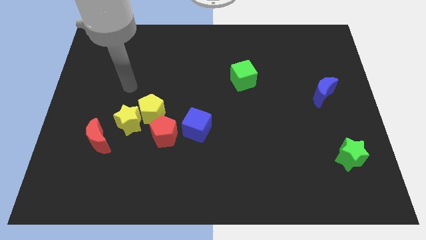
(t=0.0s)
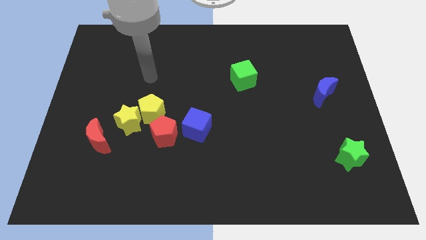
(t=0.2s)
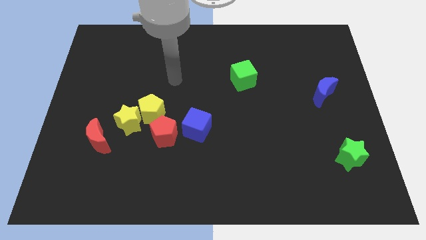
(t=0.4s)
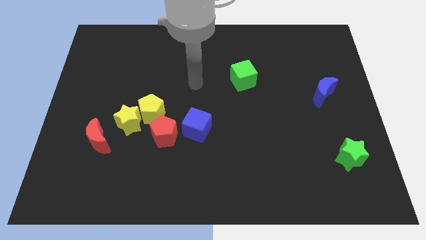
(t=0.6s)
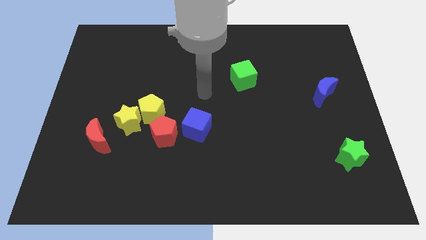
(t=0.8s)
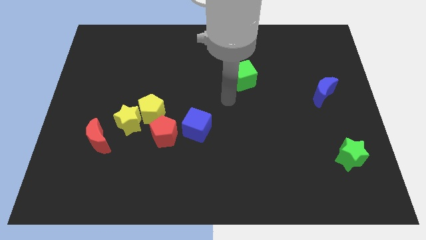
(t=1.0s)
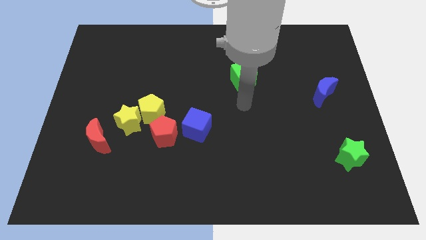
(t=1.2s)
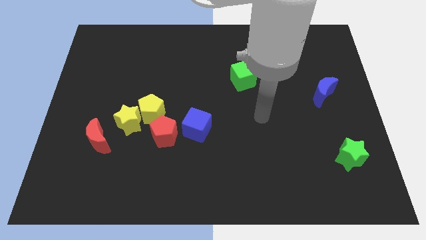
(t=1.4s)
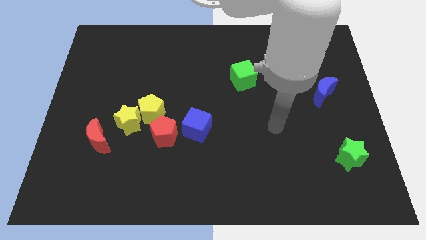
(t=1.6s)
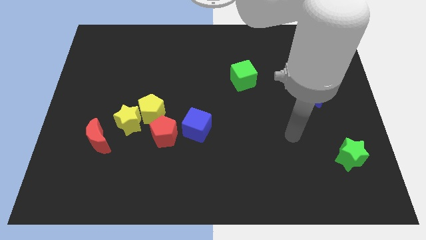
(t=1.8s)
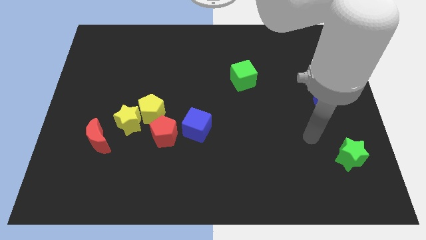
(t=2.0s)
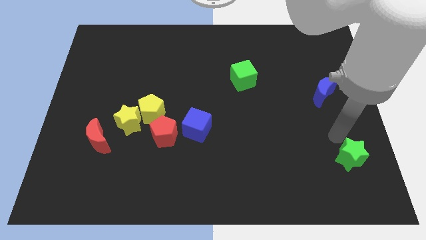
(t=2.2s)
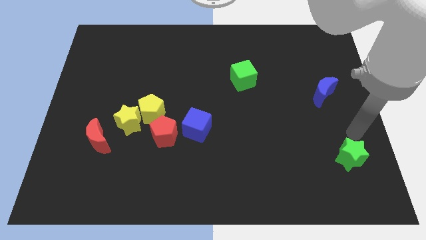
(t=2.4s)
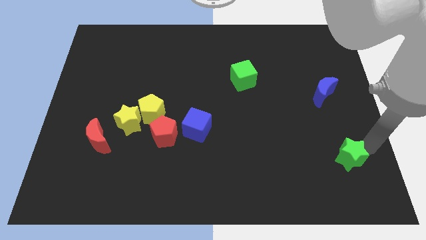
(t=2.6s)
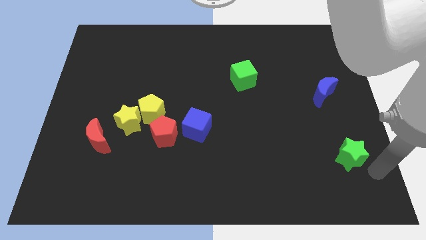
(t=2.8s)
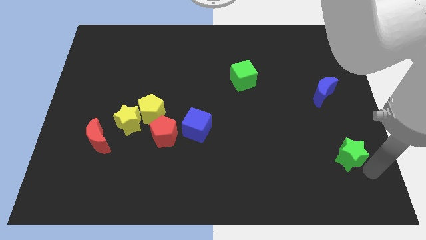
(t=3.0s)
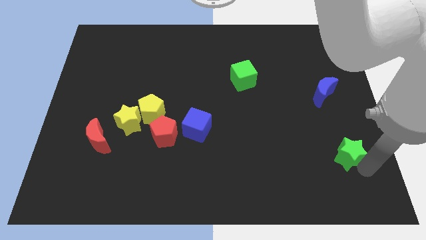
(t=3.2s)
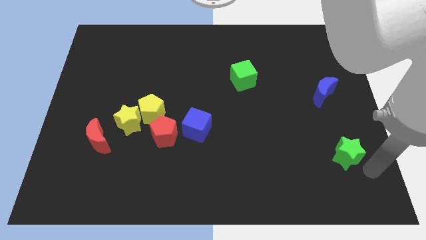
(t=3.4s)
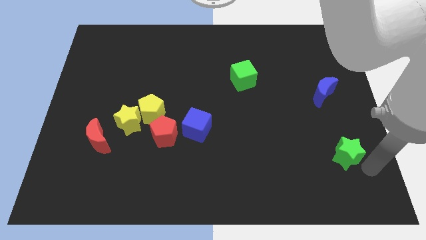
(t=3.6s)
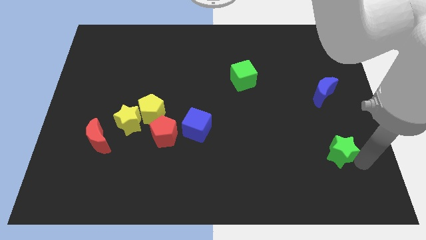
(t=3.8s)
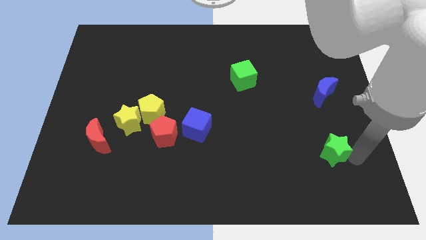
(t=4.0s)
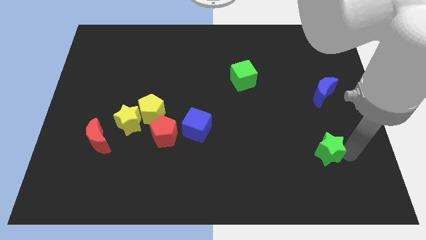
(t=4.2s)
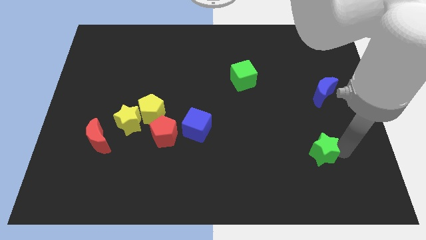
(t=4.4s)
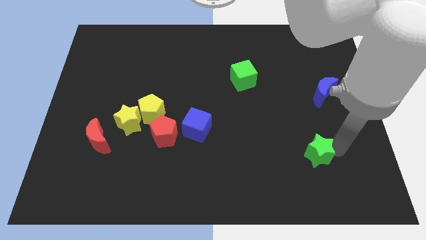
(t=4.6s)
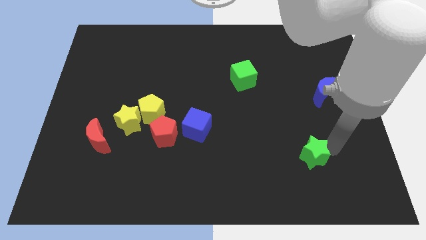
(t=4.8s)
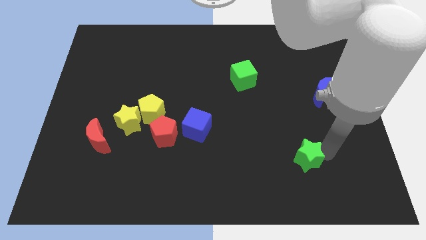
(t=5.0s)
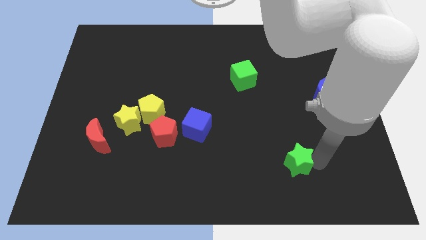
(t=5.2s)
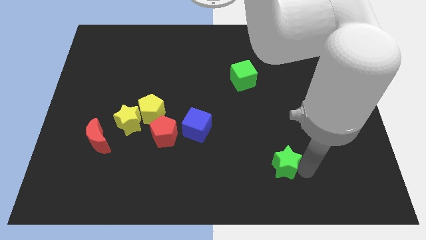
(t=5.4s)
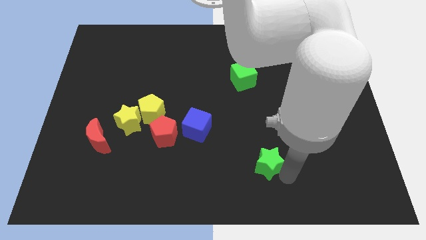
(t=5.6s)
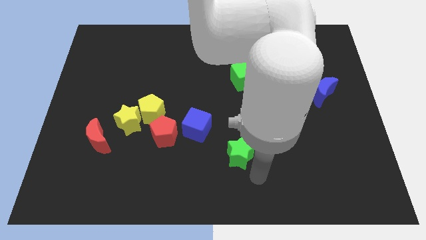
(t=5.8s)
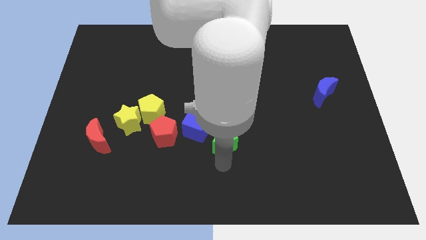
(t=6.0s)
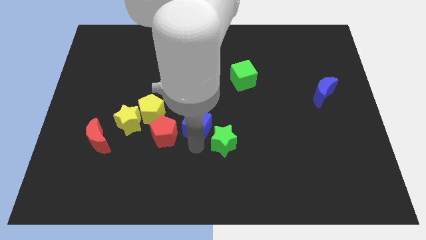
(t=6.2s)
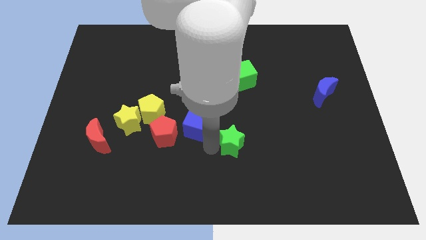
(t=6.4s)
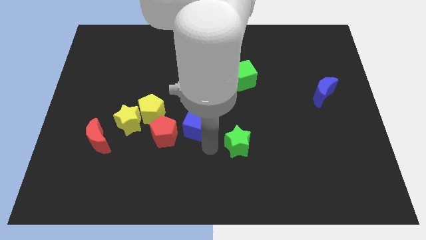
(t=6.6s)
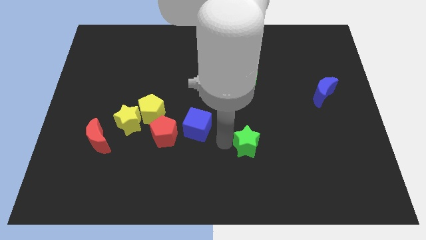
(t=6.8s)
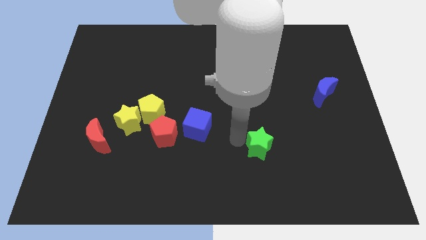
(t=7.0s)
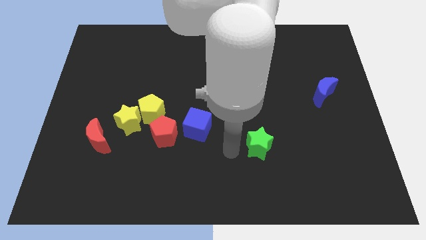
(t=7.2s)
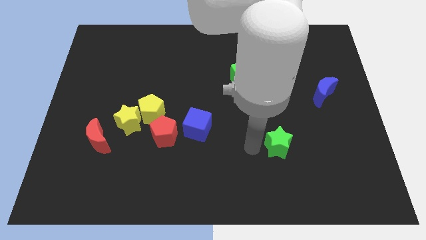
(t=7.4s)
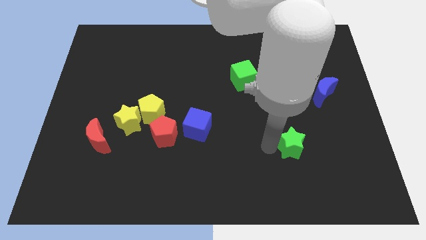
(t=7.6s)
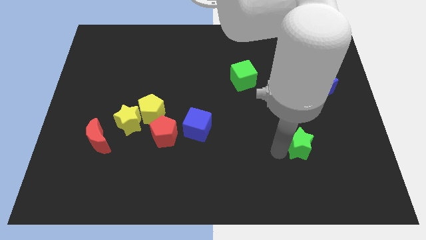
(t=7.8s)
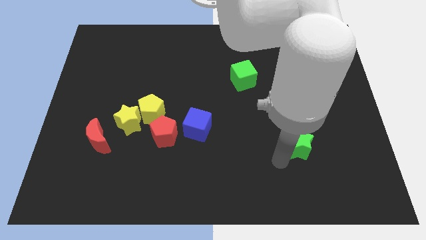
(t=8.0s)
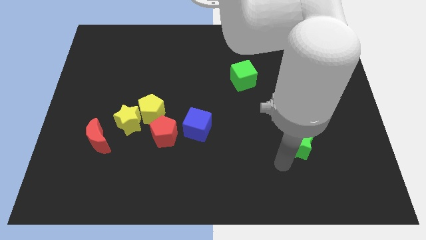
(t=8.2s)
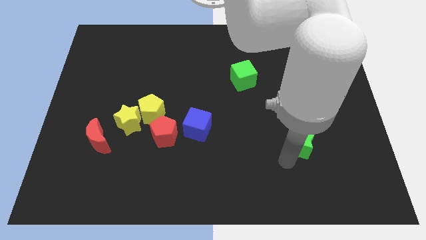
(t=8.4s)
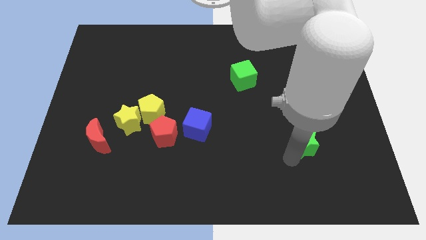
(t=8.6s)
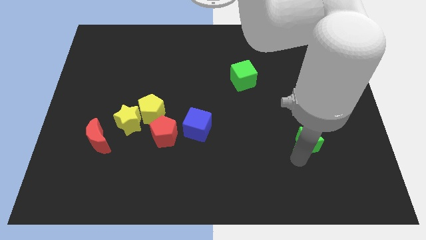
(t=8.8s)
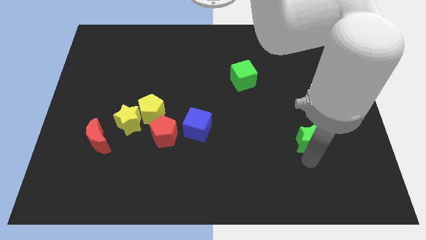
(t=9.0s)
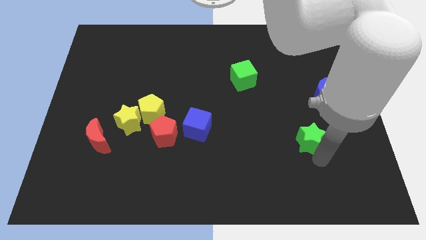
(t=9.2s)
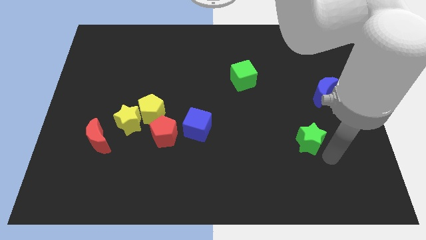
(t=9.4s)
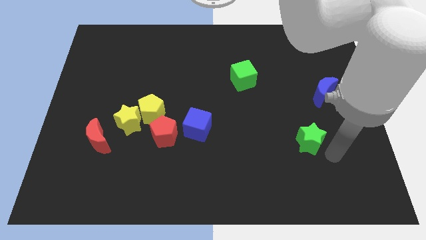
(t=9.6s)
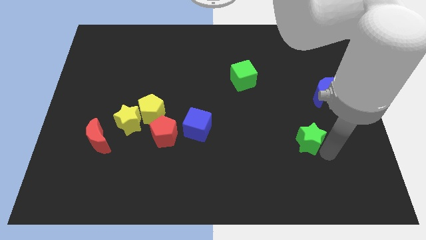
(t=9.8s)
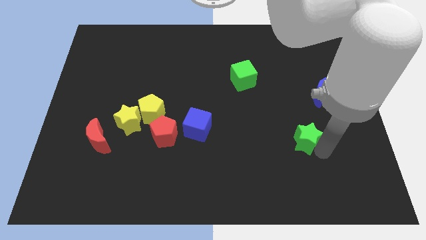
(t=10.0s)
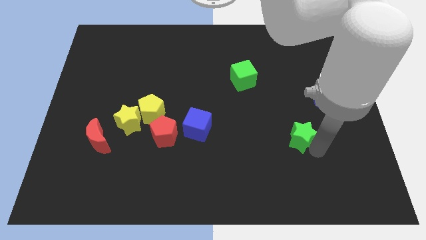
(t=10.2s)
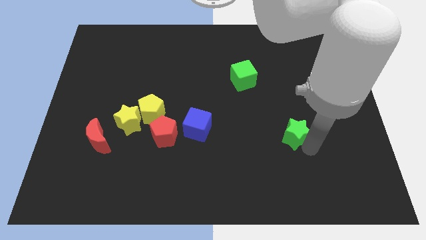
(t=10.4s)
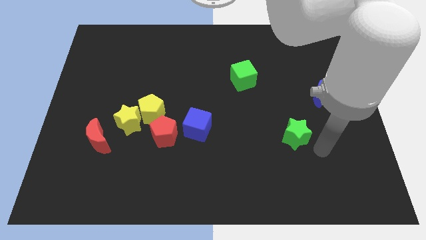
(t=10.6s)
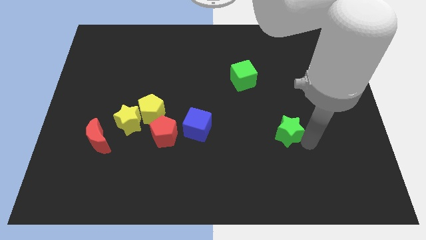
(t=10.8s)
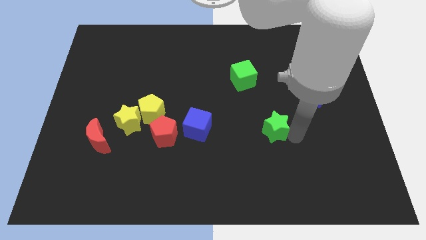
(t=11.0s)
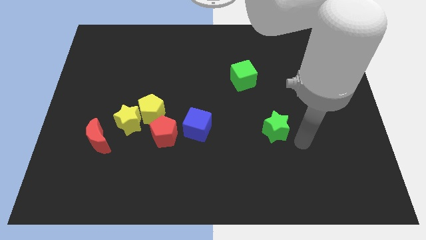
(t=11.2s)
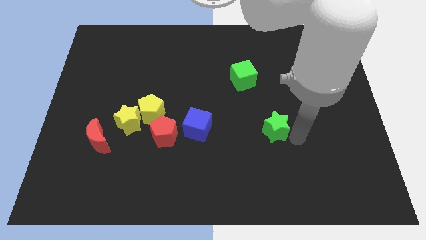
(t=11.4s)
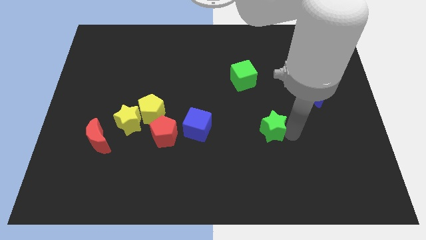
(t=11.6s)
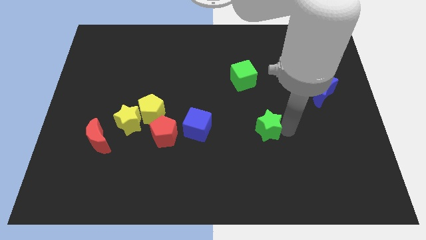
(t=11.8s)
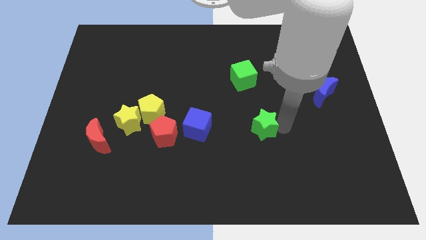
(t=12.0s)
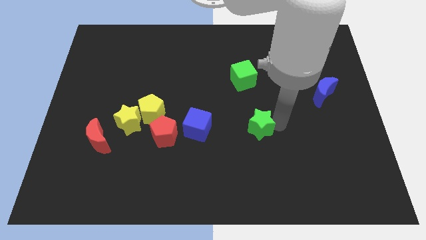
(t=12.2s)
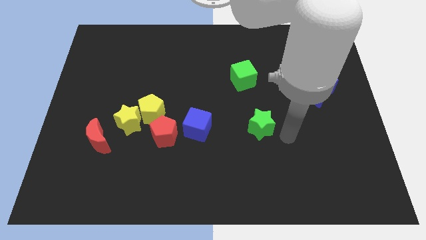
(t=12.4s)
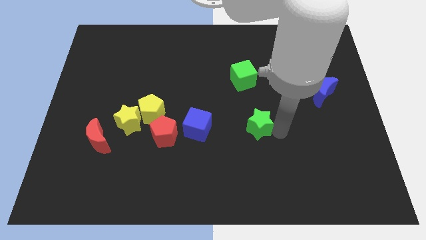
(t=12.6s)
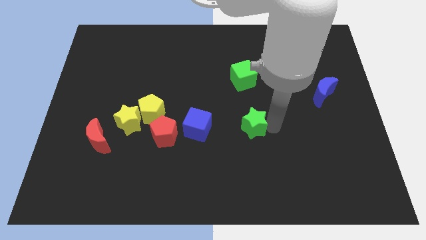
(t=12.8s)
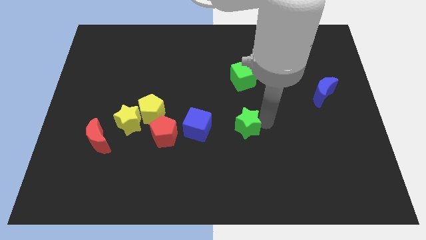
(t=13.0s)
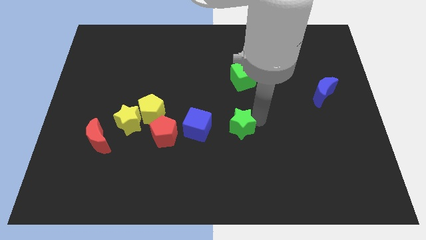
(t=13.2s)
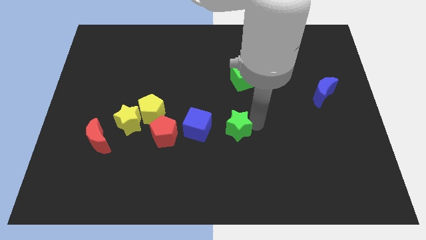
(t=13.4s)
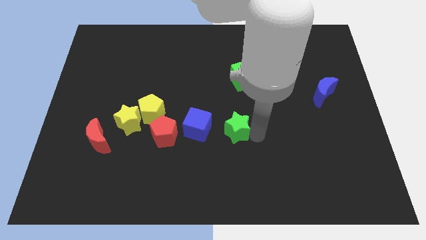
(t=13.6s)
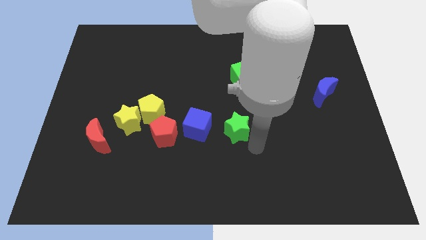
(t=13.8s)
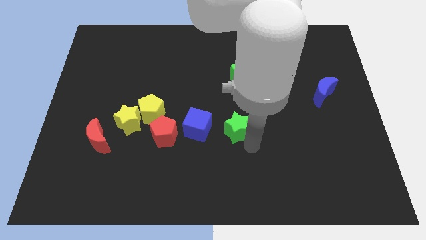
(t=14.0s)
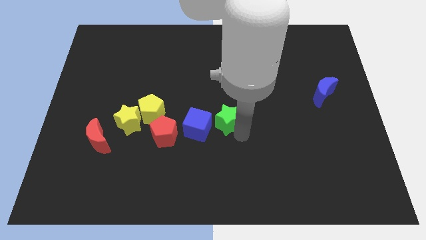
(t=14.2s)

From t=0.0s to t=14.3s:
put the green star diagonally up and to the right of the blue cube

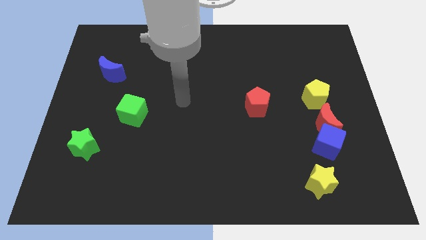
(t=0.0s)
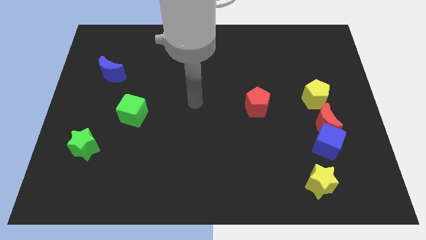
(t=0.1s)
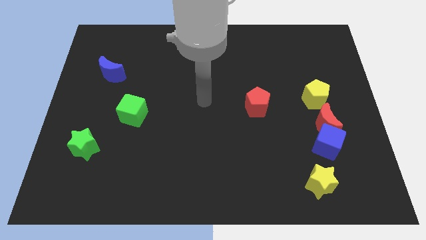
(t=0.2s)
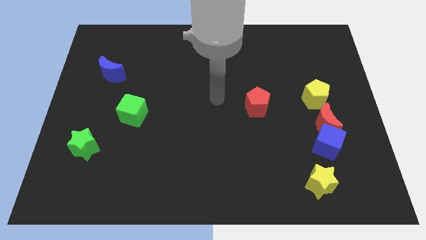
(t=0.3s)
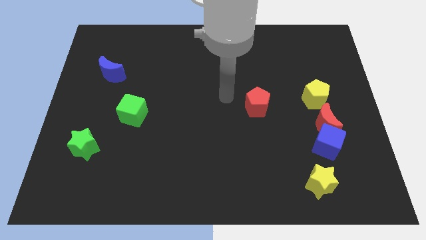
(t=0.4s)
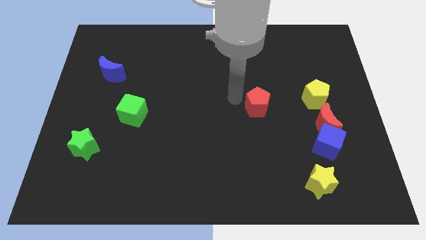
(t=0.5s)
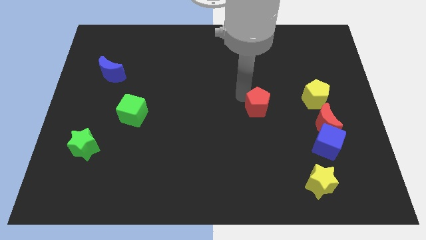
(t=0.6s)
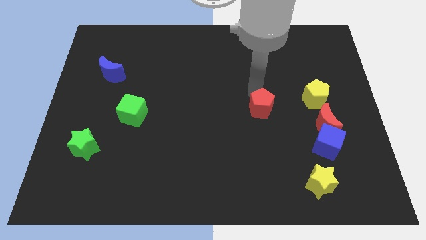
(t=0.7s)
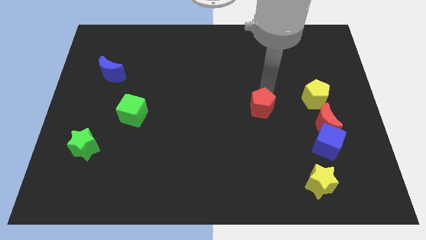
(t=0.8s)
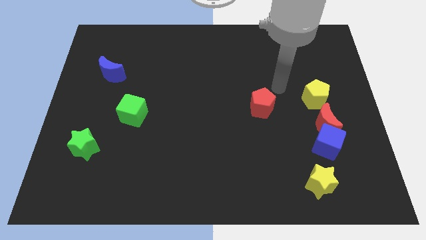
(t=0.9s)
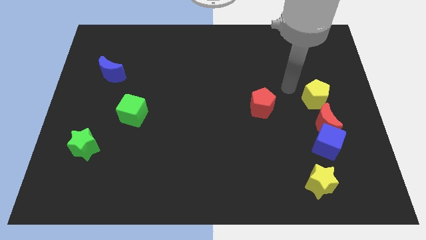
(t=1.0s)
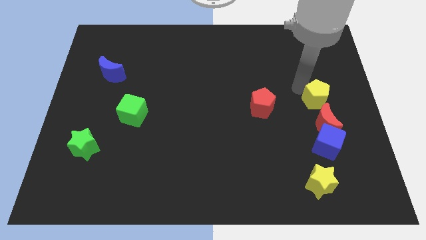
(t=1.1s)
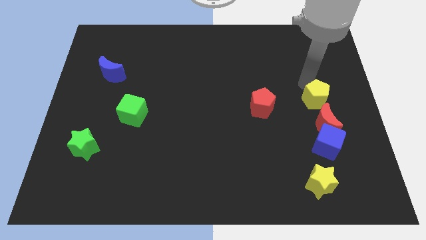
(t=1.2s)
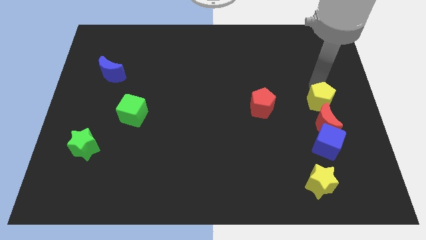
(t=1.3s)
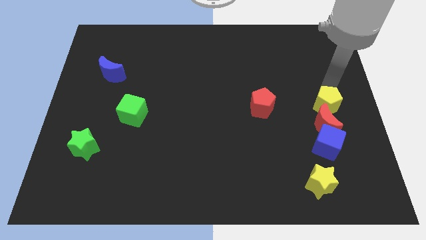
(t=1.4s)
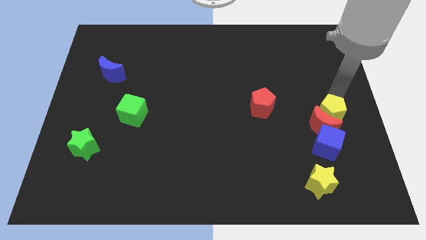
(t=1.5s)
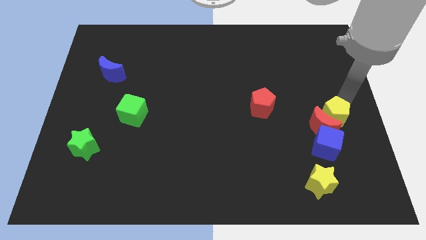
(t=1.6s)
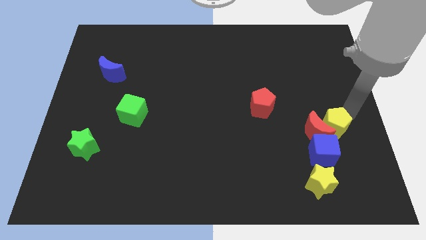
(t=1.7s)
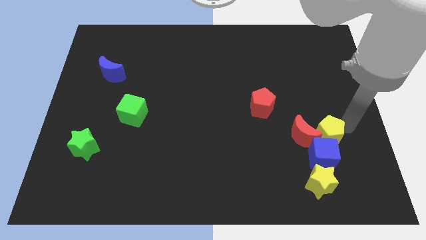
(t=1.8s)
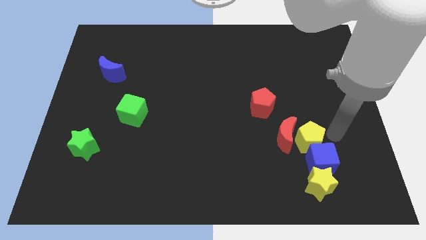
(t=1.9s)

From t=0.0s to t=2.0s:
put the red moon to the bottom of the red pentagon
